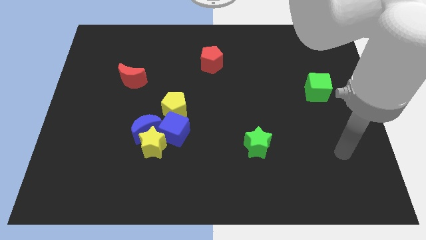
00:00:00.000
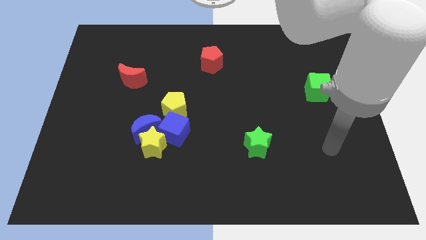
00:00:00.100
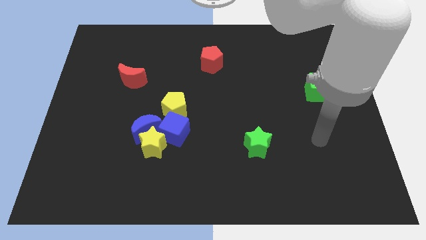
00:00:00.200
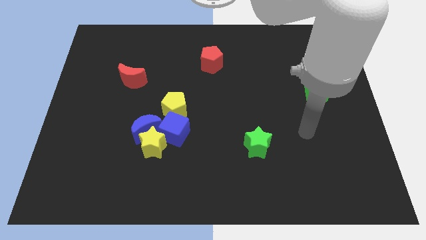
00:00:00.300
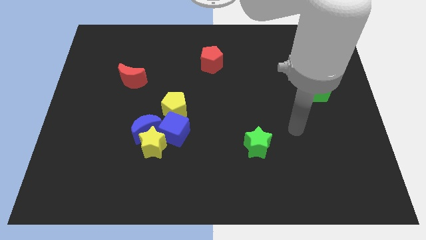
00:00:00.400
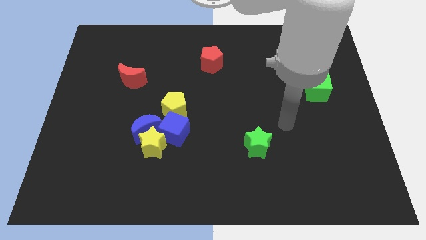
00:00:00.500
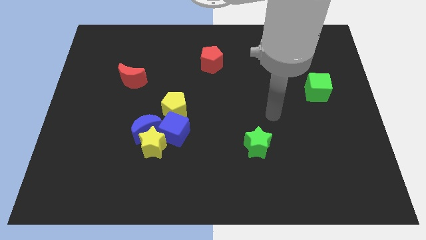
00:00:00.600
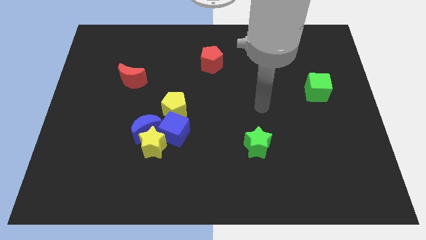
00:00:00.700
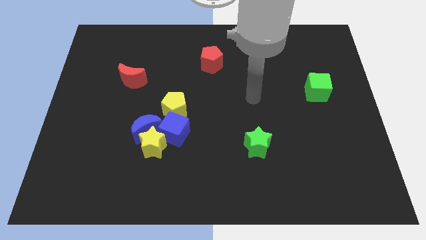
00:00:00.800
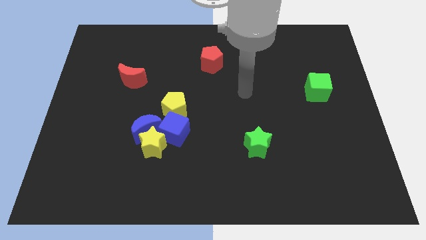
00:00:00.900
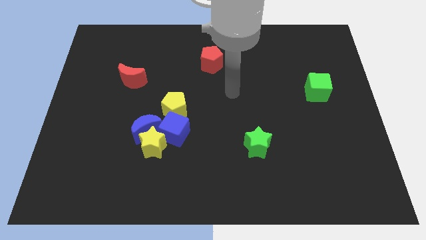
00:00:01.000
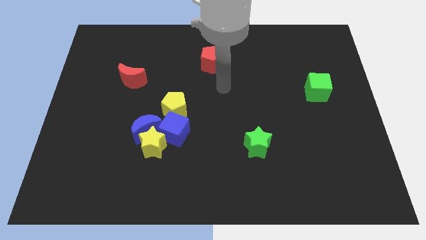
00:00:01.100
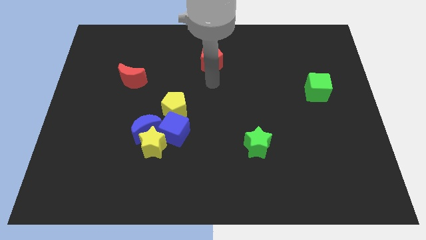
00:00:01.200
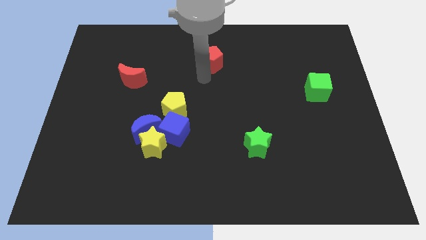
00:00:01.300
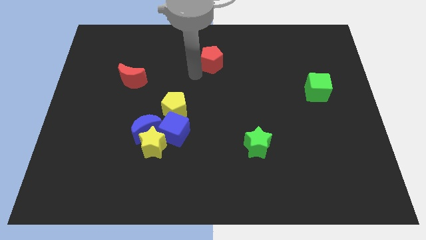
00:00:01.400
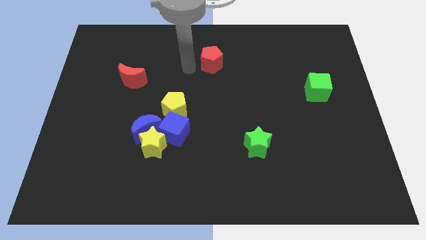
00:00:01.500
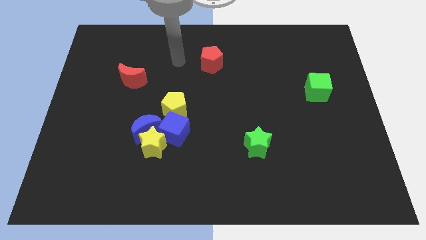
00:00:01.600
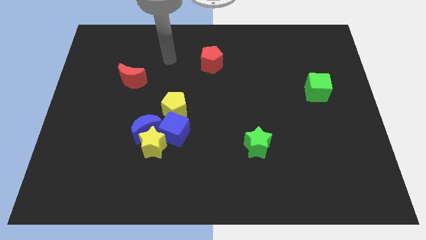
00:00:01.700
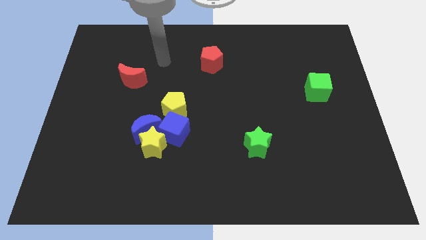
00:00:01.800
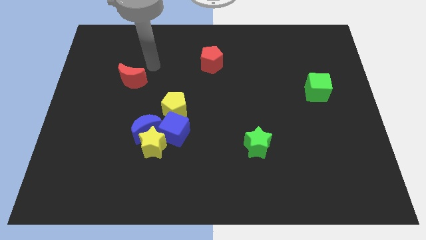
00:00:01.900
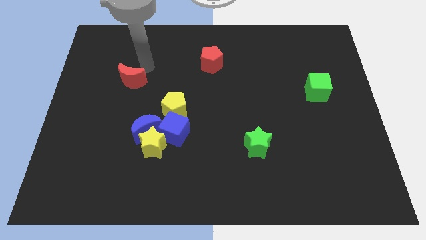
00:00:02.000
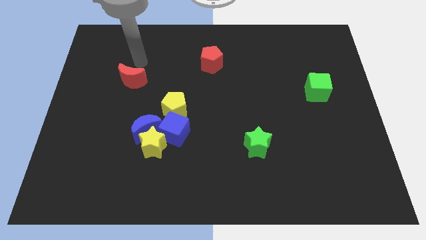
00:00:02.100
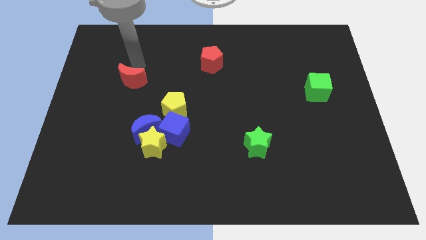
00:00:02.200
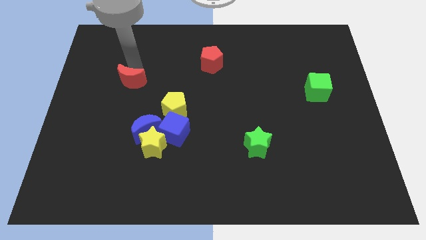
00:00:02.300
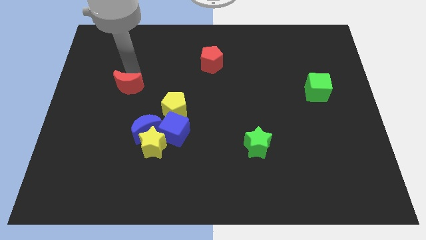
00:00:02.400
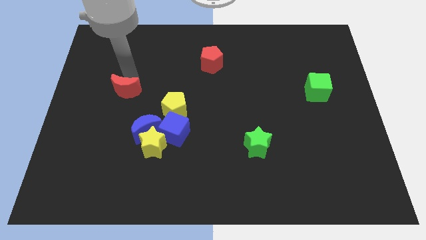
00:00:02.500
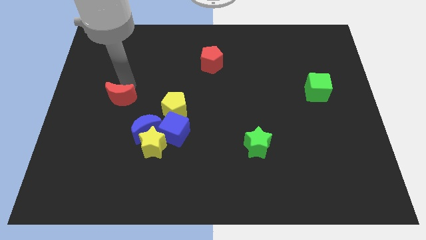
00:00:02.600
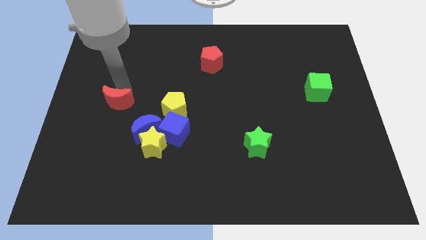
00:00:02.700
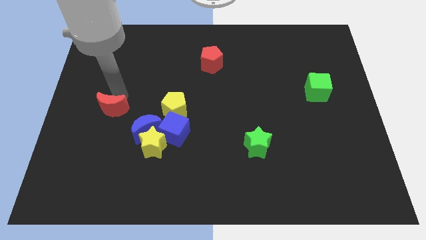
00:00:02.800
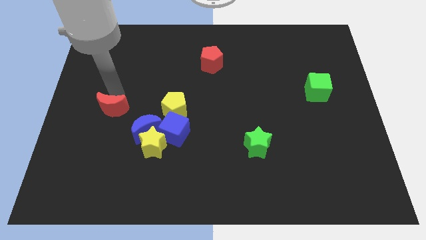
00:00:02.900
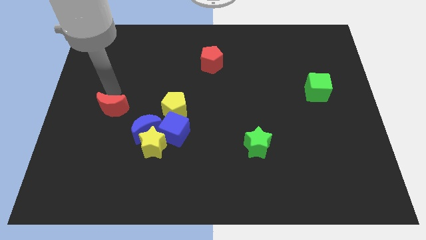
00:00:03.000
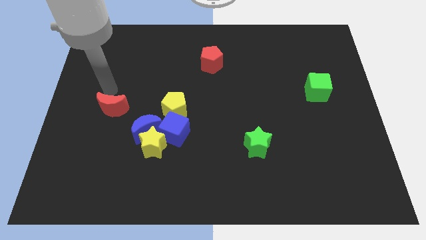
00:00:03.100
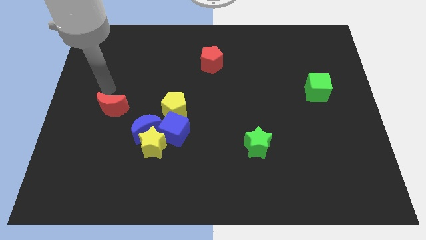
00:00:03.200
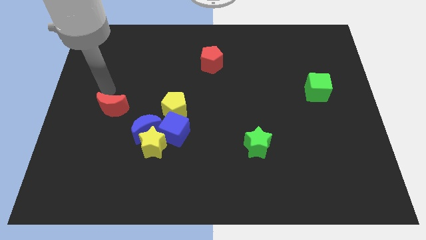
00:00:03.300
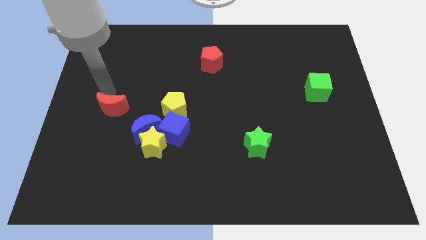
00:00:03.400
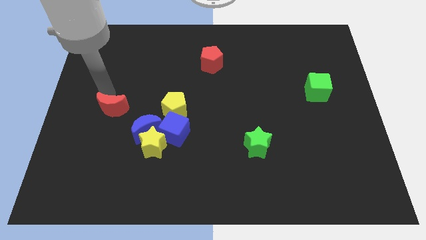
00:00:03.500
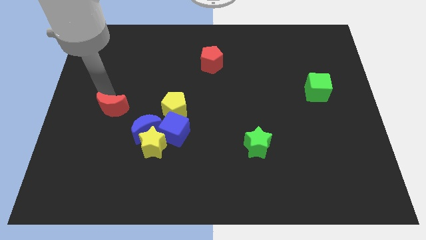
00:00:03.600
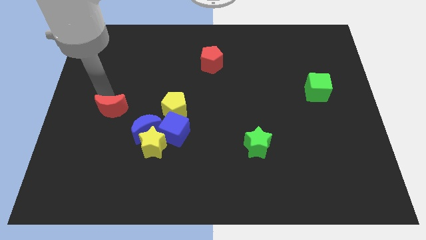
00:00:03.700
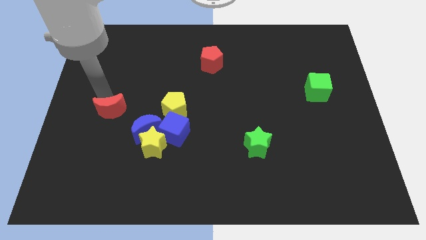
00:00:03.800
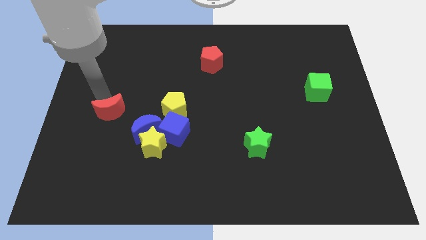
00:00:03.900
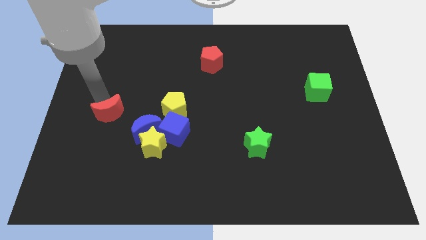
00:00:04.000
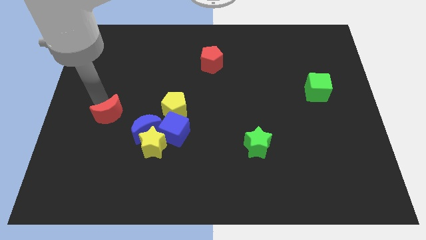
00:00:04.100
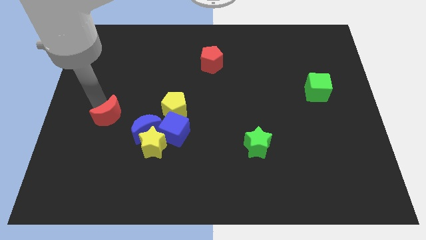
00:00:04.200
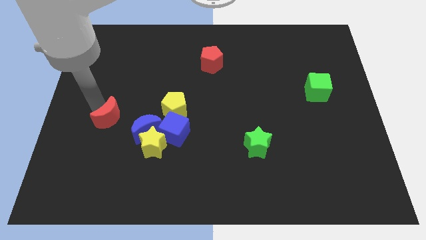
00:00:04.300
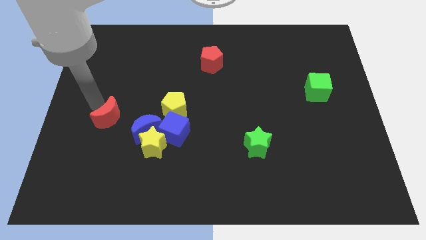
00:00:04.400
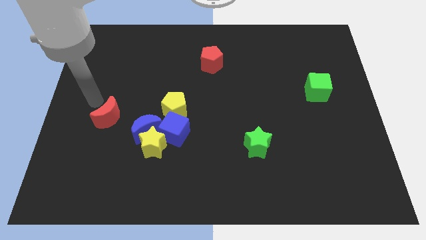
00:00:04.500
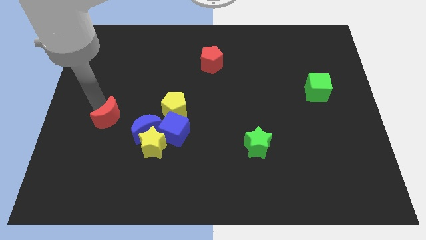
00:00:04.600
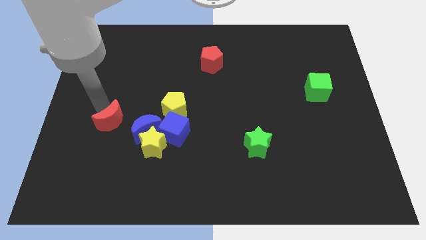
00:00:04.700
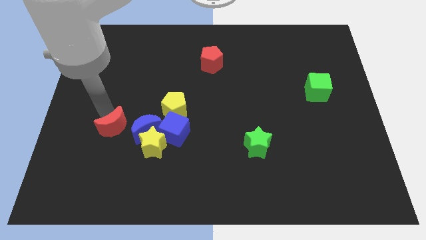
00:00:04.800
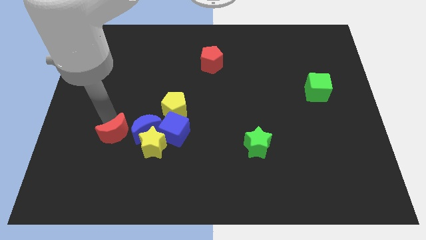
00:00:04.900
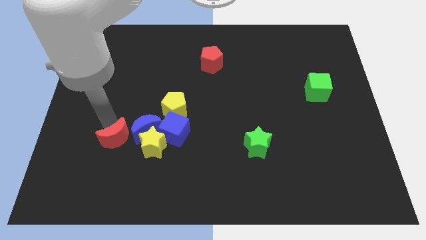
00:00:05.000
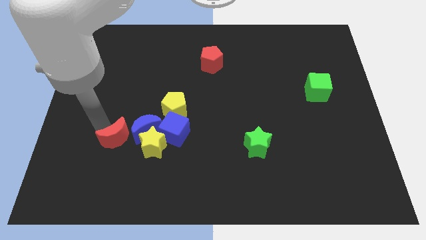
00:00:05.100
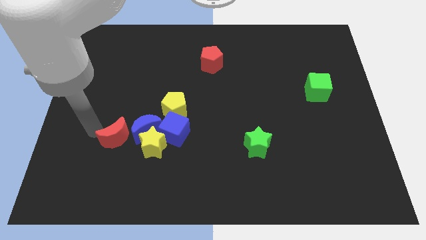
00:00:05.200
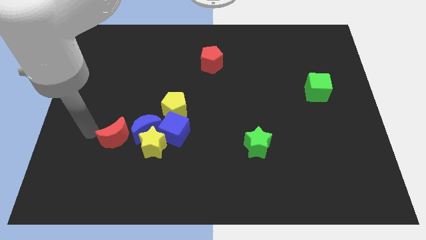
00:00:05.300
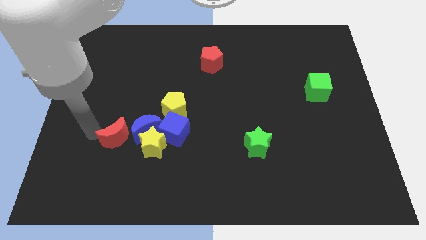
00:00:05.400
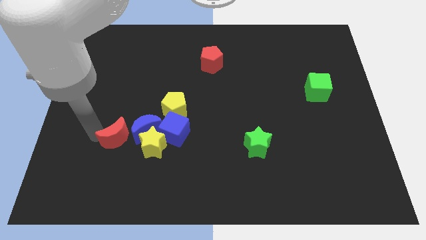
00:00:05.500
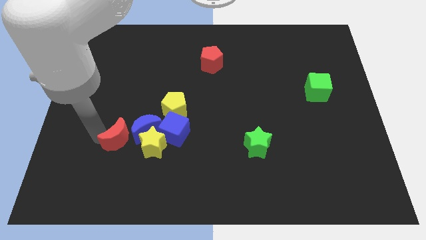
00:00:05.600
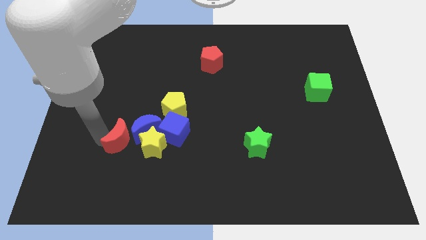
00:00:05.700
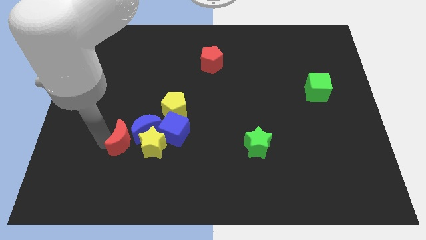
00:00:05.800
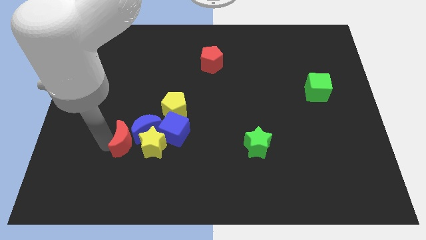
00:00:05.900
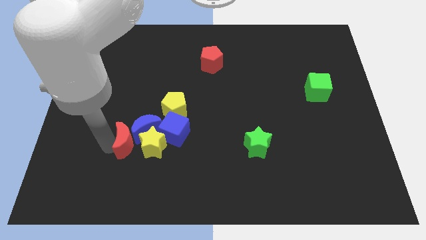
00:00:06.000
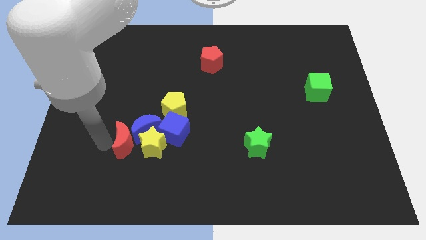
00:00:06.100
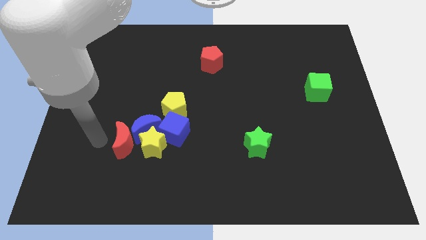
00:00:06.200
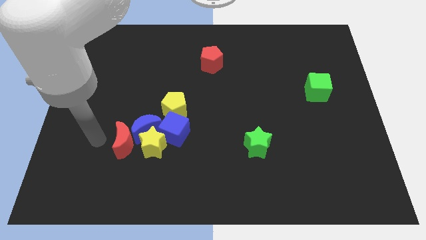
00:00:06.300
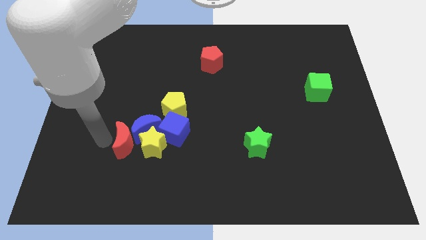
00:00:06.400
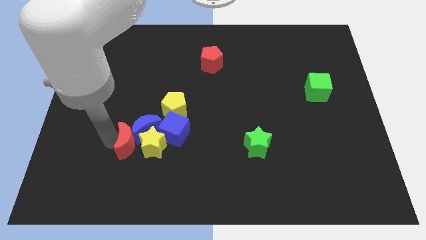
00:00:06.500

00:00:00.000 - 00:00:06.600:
push the red moon to the yellow star

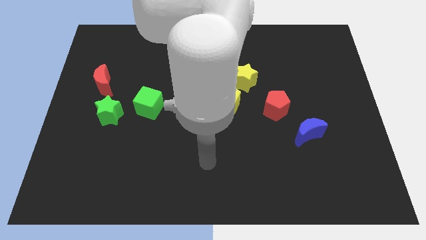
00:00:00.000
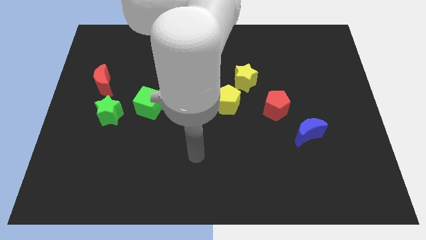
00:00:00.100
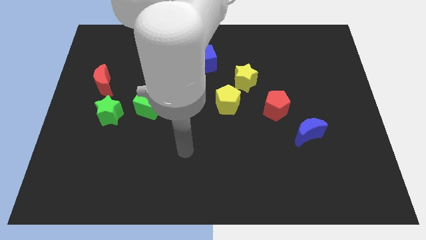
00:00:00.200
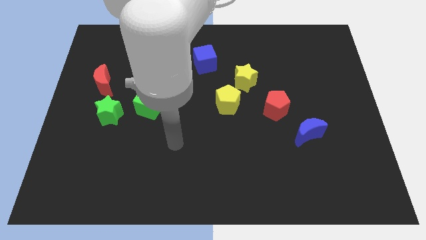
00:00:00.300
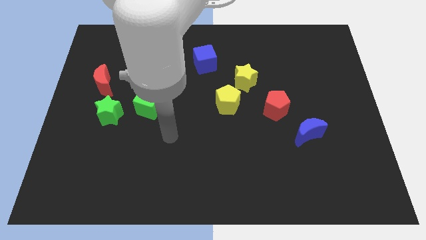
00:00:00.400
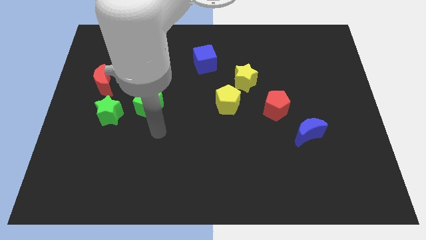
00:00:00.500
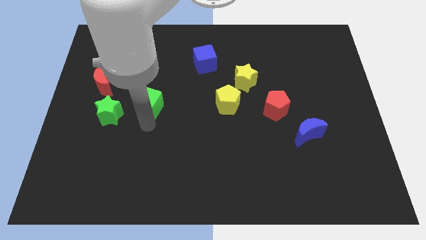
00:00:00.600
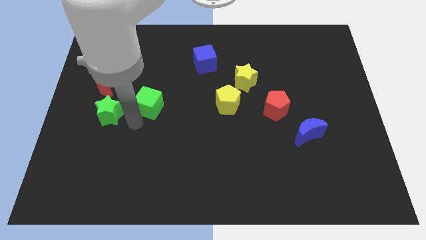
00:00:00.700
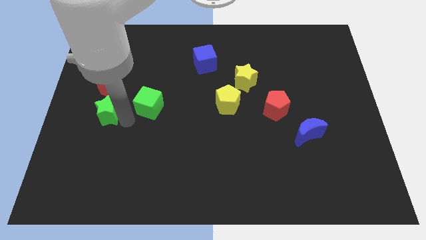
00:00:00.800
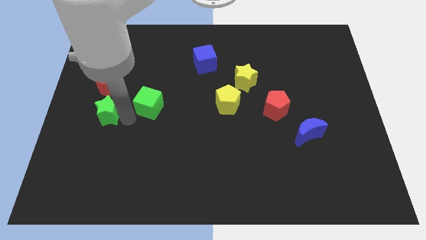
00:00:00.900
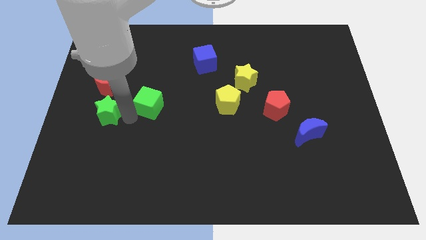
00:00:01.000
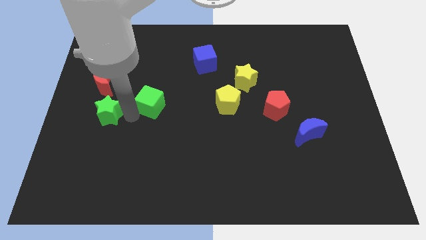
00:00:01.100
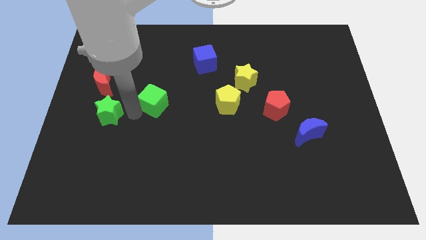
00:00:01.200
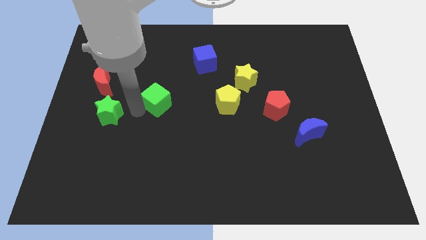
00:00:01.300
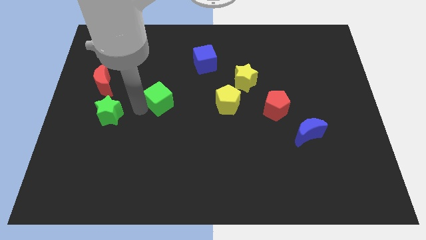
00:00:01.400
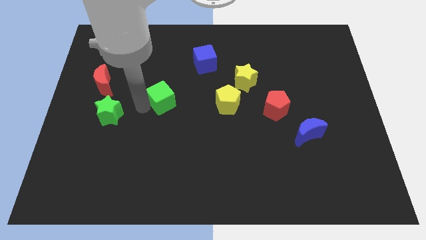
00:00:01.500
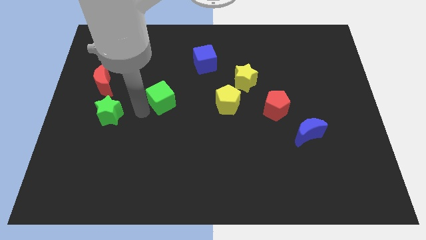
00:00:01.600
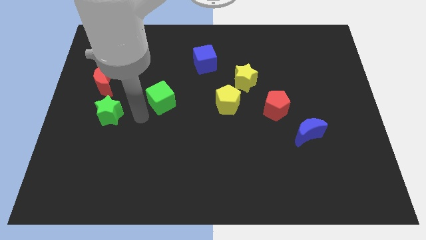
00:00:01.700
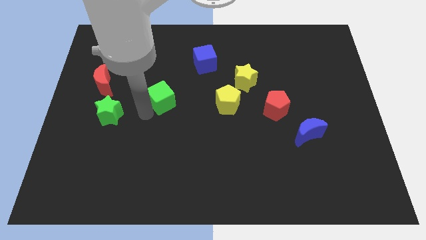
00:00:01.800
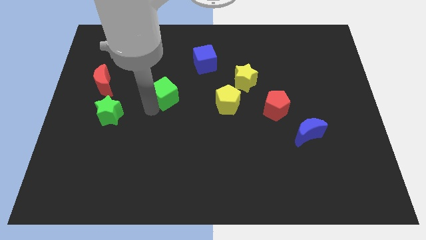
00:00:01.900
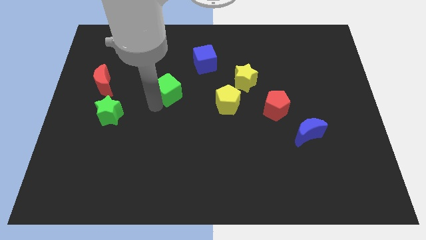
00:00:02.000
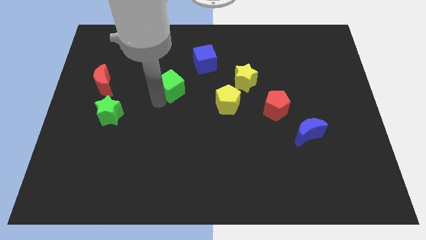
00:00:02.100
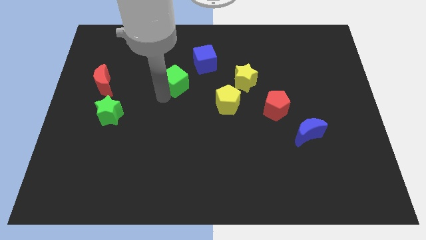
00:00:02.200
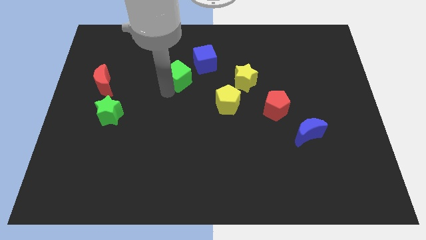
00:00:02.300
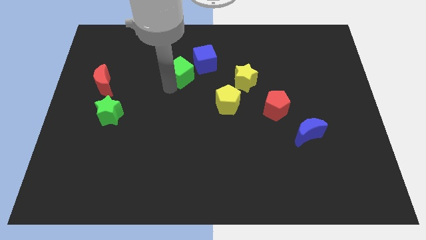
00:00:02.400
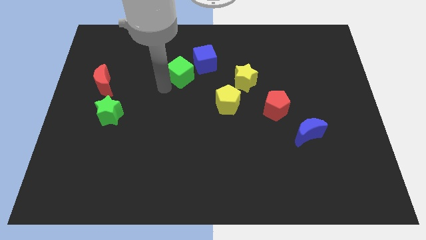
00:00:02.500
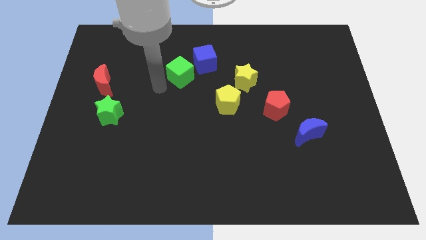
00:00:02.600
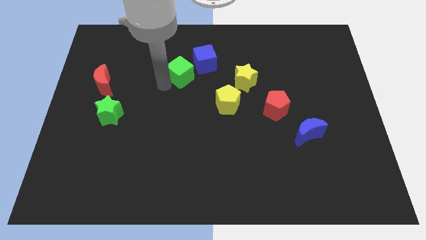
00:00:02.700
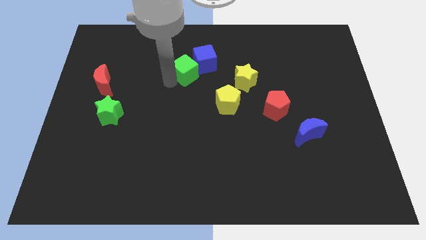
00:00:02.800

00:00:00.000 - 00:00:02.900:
slide the green cube to the blue cube
